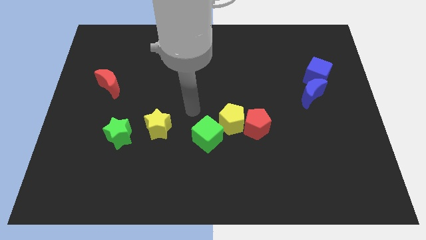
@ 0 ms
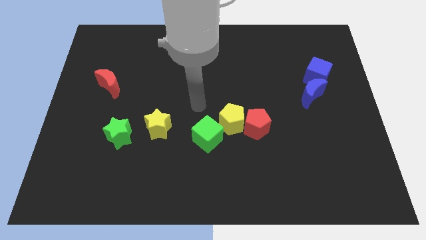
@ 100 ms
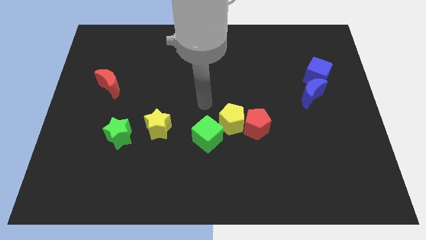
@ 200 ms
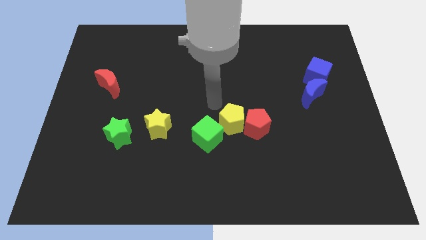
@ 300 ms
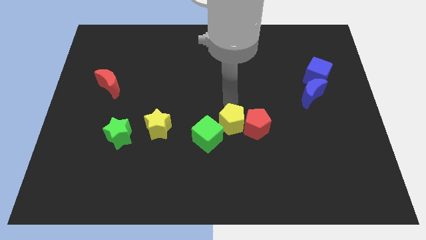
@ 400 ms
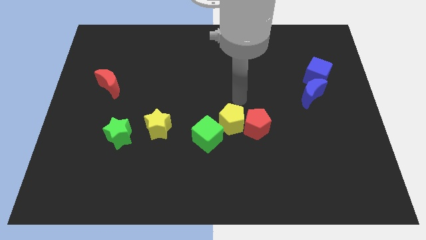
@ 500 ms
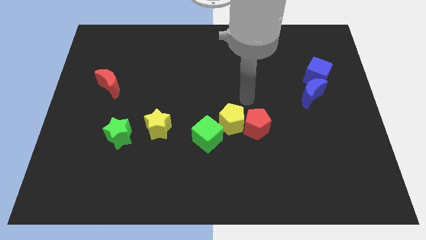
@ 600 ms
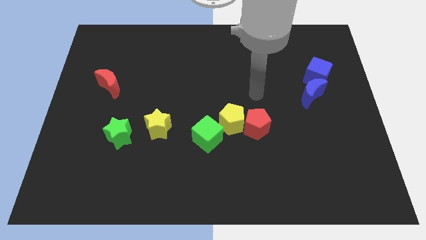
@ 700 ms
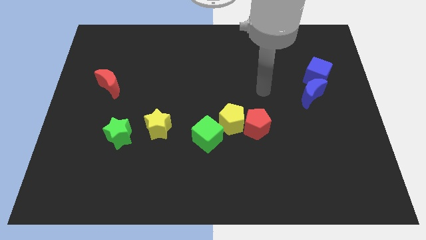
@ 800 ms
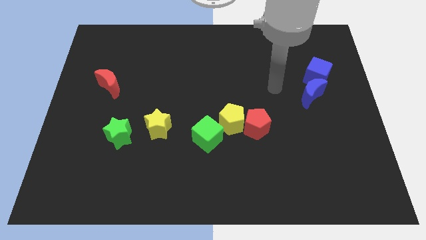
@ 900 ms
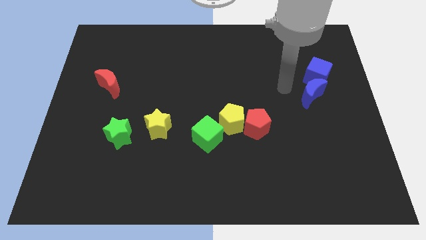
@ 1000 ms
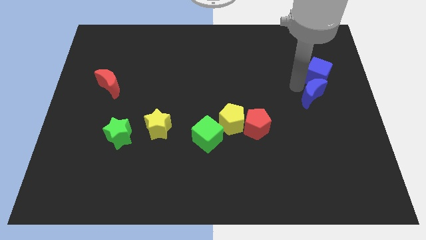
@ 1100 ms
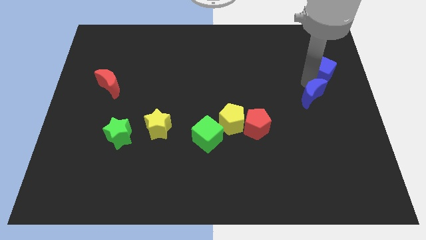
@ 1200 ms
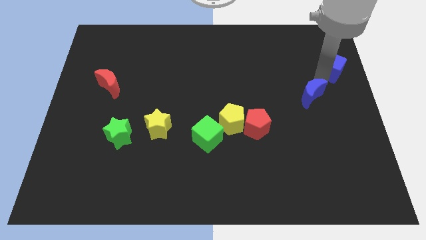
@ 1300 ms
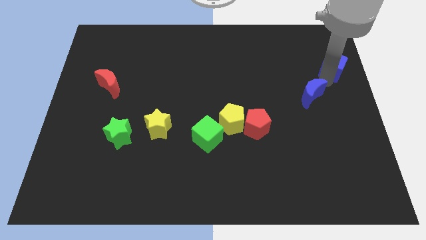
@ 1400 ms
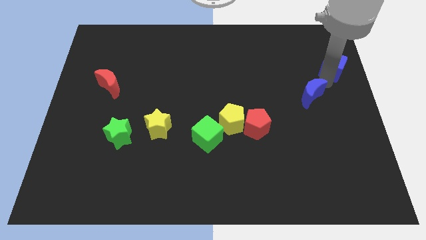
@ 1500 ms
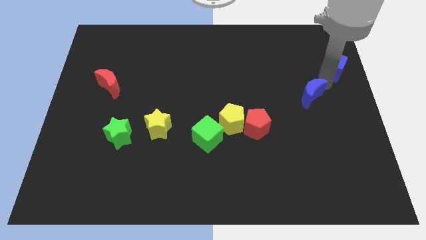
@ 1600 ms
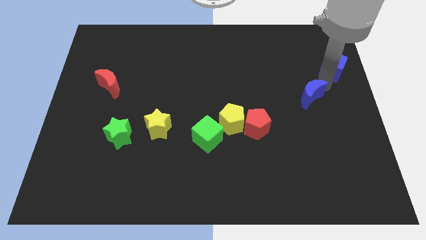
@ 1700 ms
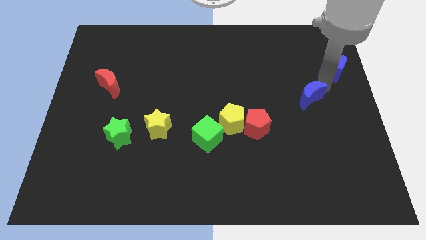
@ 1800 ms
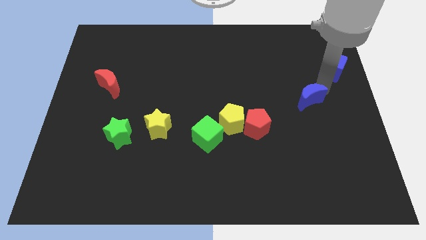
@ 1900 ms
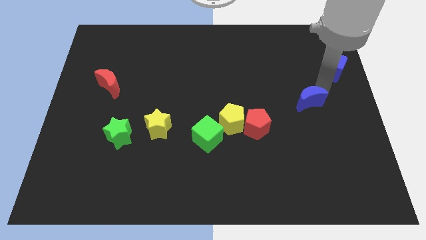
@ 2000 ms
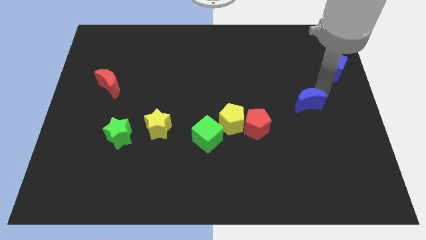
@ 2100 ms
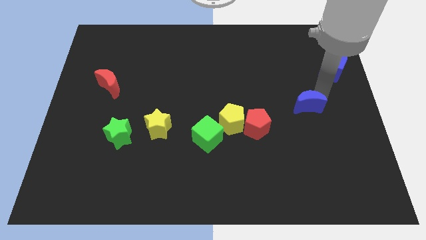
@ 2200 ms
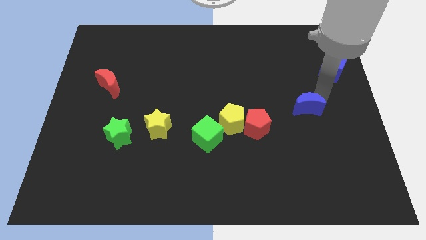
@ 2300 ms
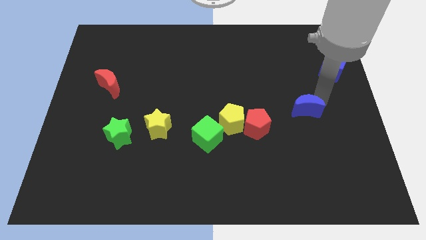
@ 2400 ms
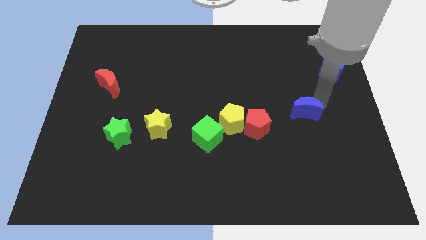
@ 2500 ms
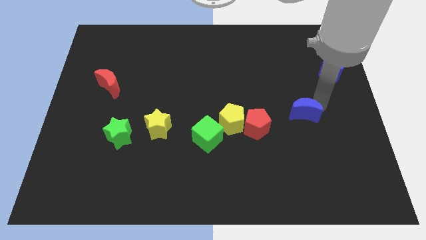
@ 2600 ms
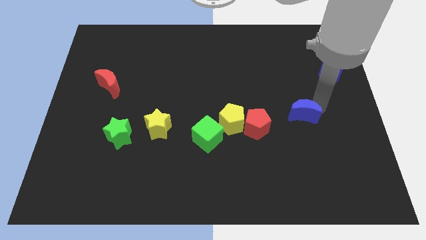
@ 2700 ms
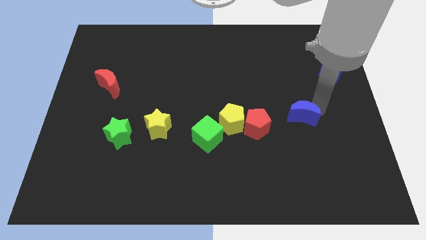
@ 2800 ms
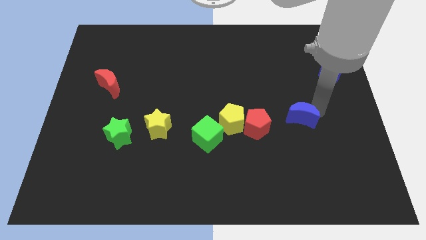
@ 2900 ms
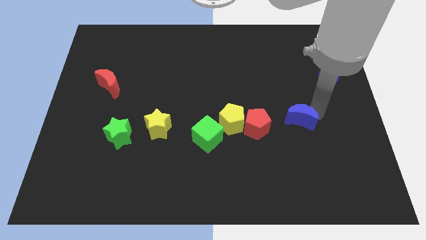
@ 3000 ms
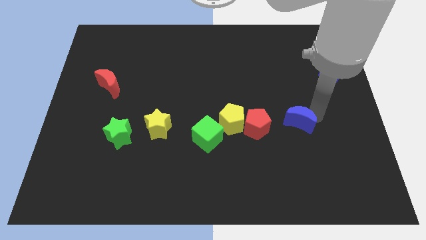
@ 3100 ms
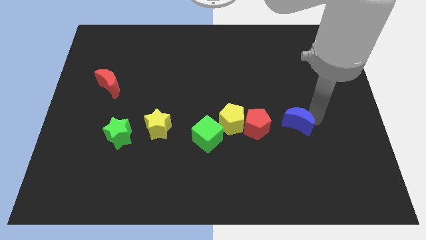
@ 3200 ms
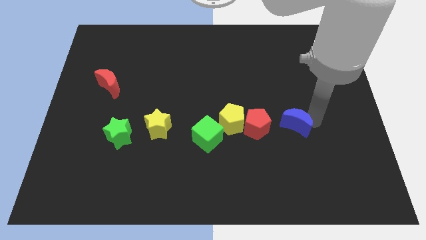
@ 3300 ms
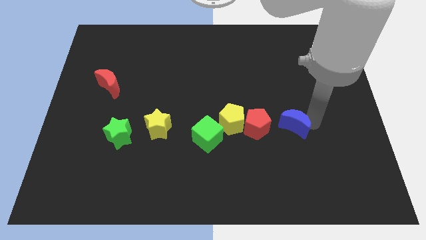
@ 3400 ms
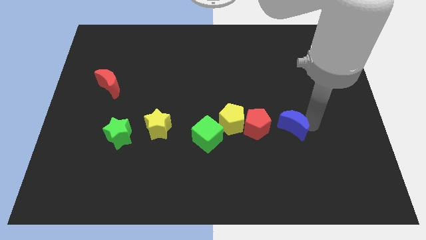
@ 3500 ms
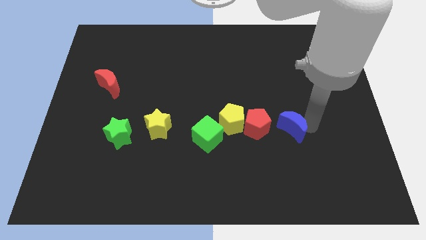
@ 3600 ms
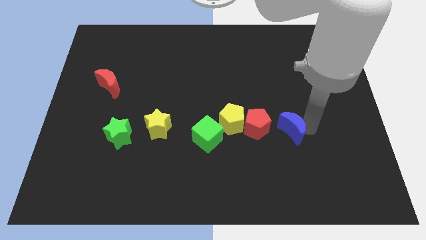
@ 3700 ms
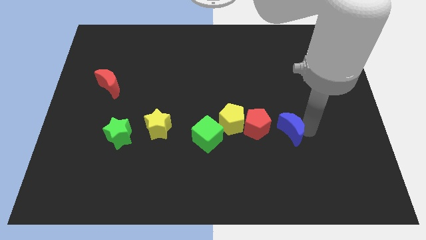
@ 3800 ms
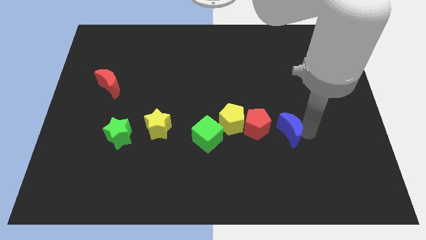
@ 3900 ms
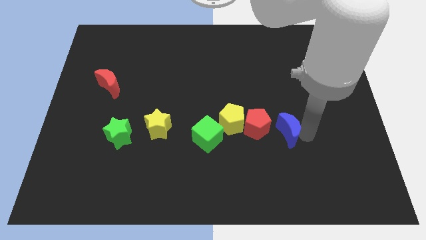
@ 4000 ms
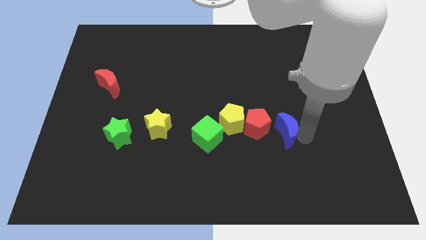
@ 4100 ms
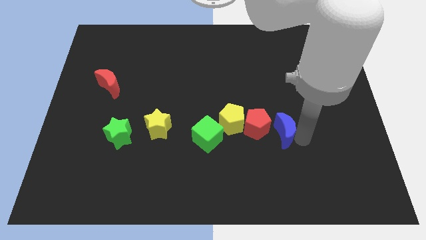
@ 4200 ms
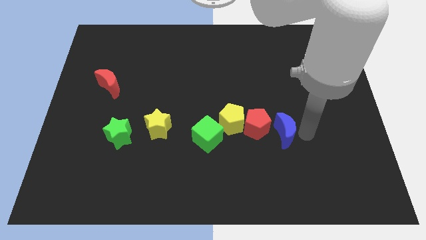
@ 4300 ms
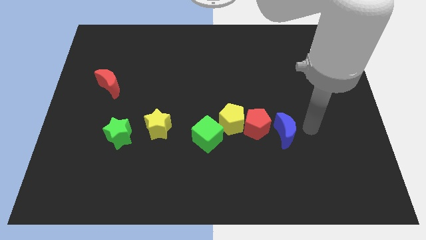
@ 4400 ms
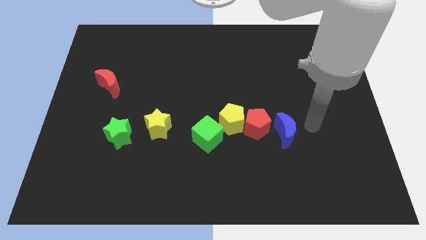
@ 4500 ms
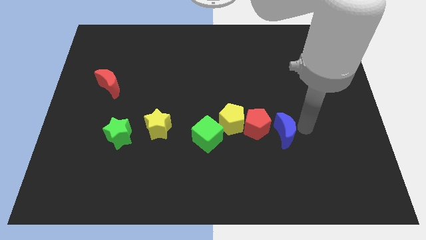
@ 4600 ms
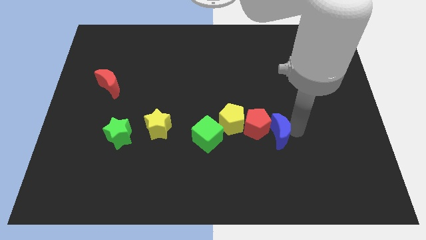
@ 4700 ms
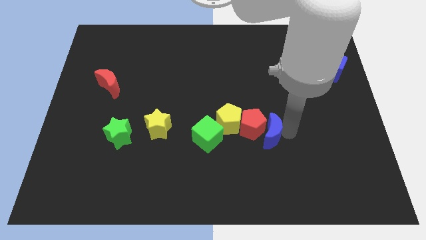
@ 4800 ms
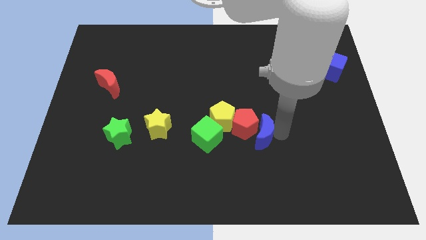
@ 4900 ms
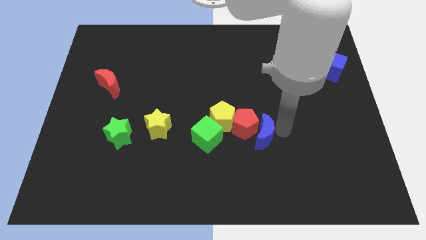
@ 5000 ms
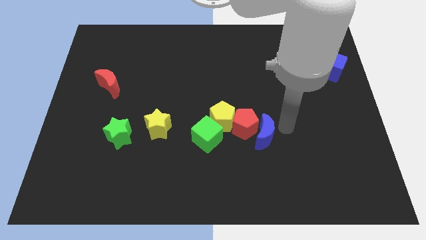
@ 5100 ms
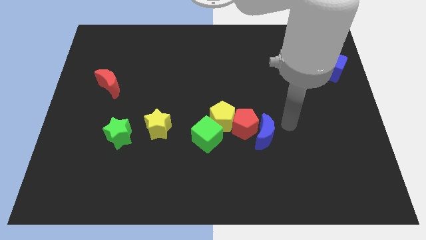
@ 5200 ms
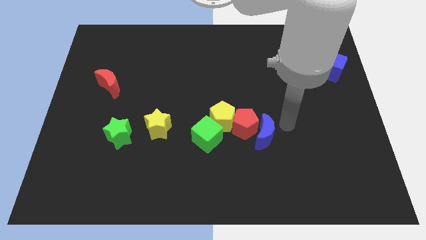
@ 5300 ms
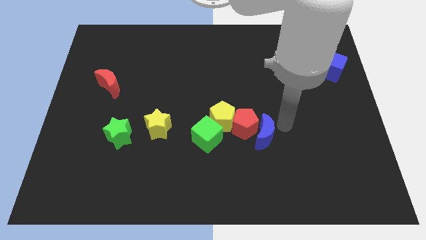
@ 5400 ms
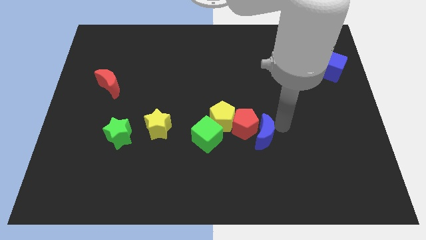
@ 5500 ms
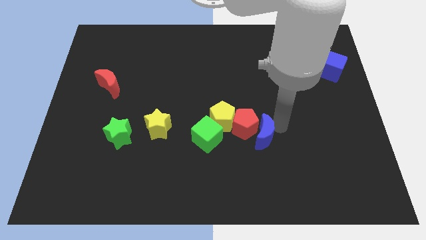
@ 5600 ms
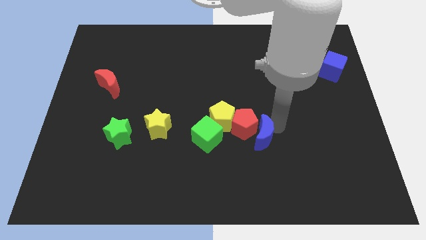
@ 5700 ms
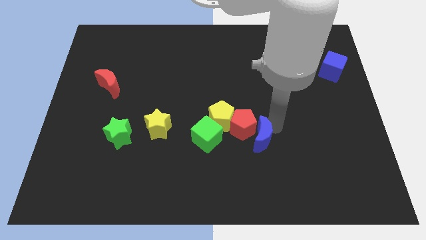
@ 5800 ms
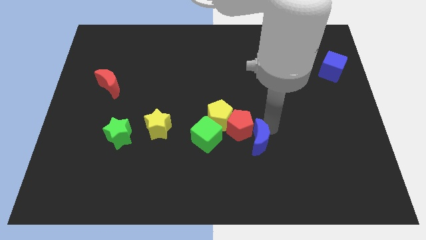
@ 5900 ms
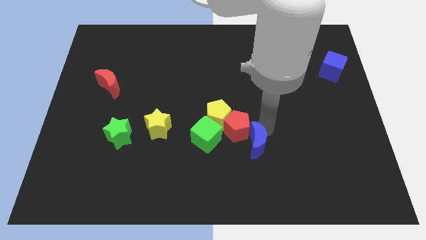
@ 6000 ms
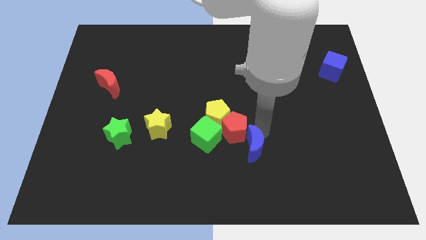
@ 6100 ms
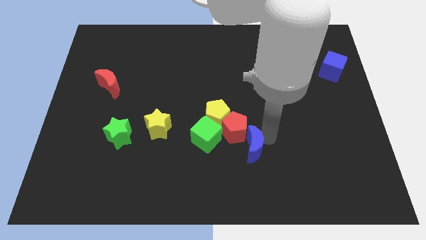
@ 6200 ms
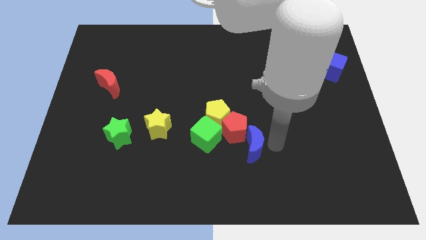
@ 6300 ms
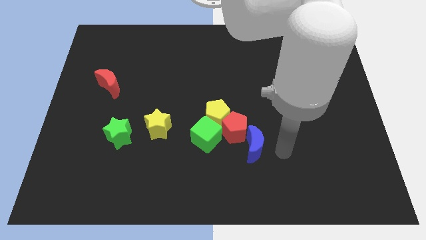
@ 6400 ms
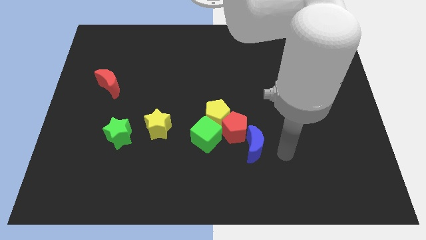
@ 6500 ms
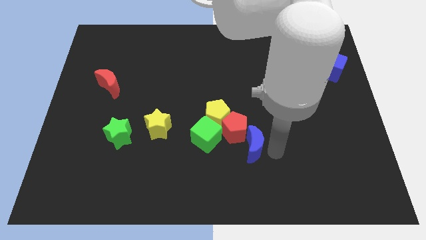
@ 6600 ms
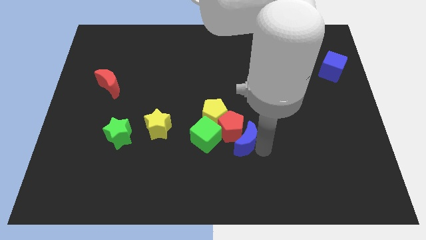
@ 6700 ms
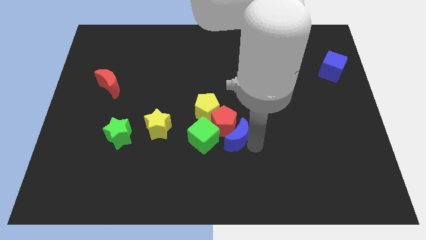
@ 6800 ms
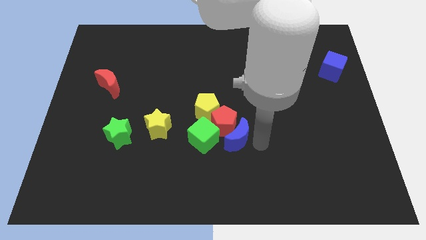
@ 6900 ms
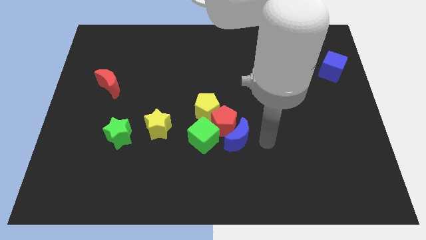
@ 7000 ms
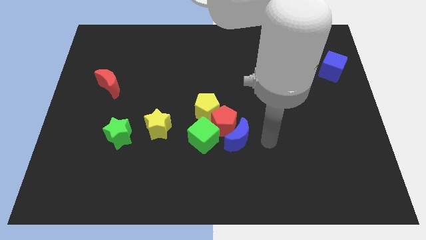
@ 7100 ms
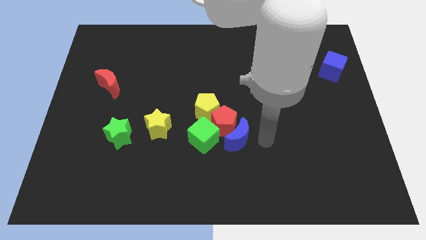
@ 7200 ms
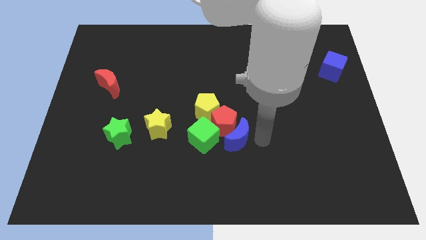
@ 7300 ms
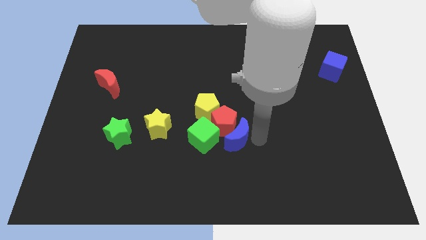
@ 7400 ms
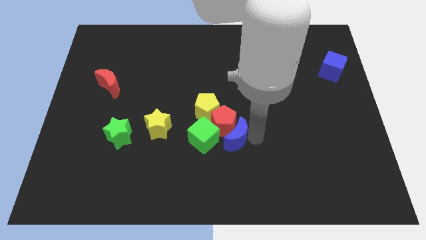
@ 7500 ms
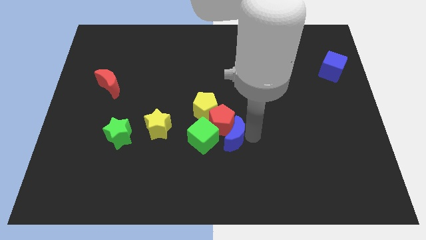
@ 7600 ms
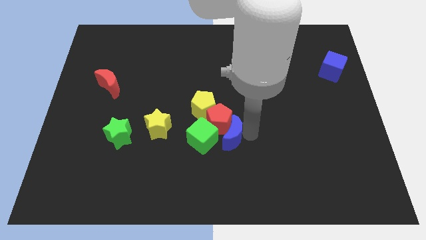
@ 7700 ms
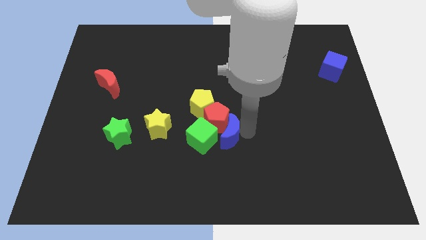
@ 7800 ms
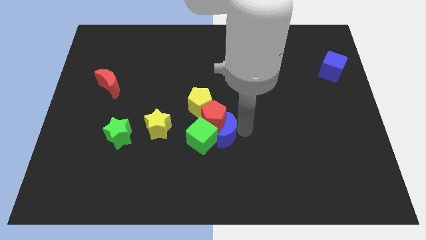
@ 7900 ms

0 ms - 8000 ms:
put the blue moon to the green cube
